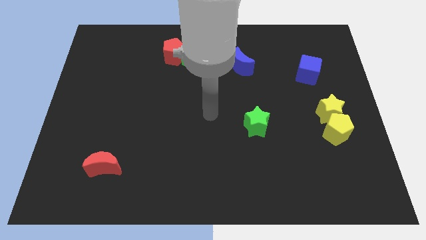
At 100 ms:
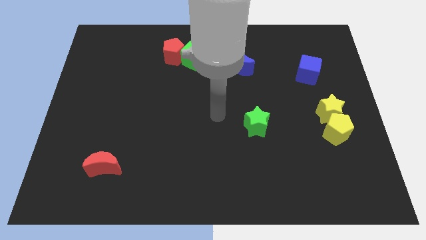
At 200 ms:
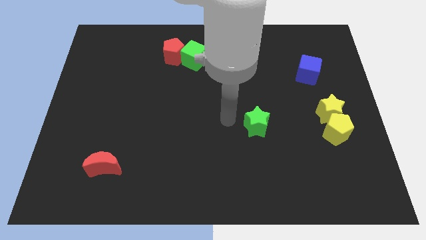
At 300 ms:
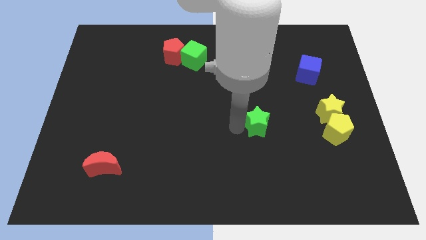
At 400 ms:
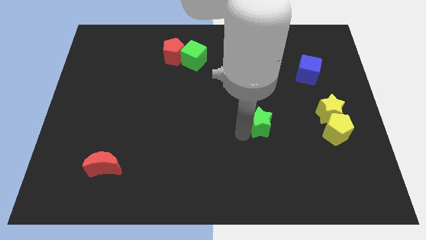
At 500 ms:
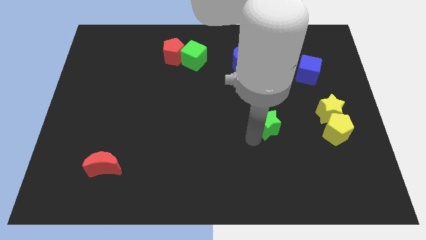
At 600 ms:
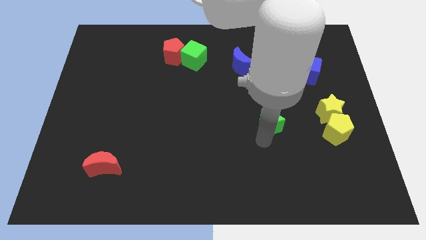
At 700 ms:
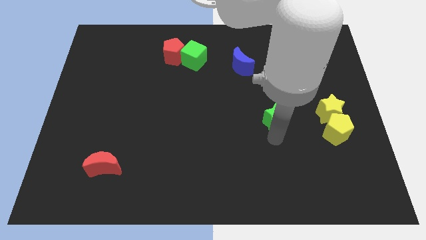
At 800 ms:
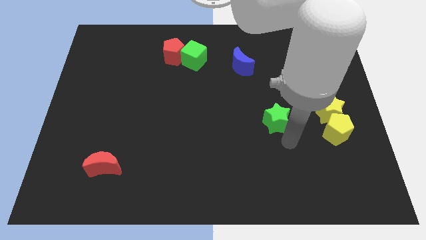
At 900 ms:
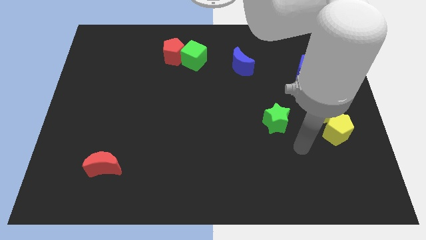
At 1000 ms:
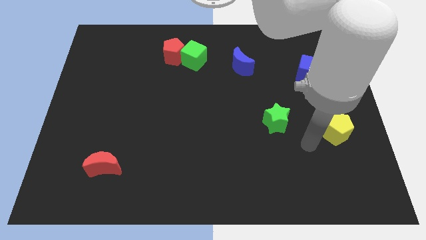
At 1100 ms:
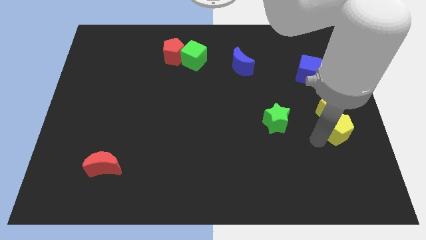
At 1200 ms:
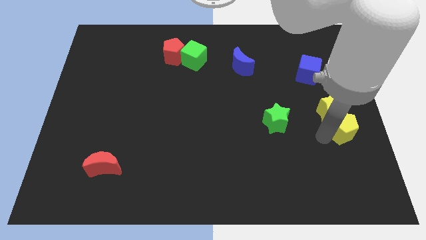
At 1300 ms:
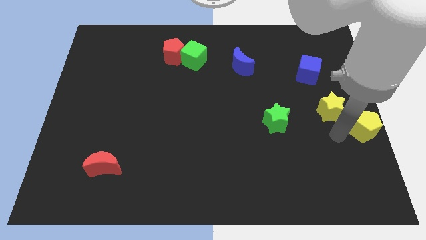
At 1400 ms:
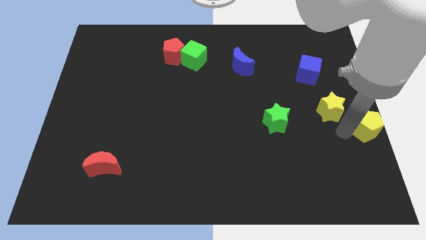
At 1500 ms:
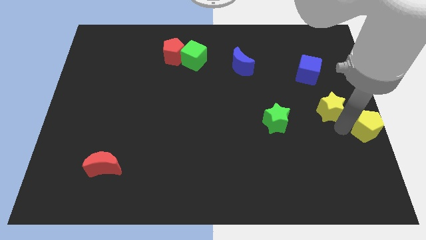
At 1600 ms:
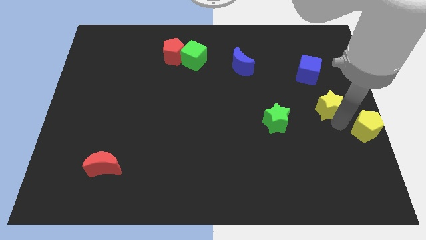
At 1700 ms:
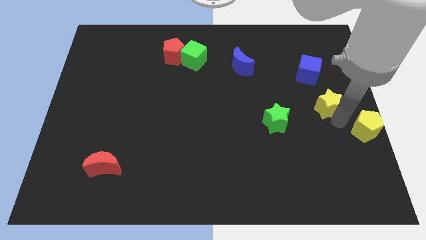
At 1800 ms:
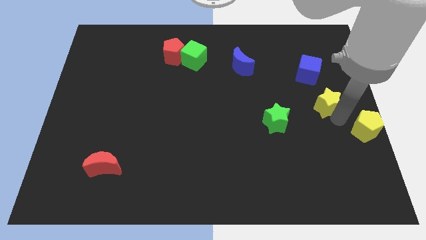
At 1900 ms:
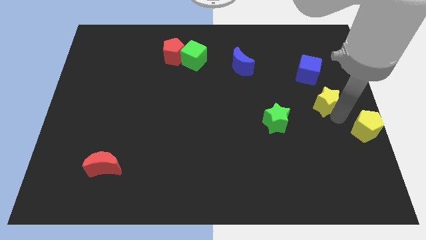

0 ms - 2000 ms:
move the yellow star away from the yellow pentagon

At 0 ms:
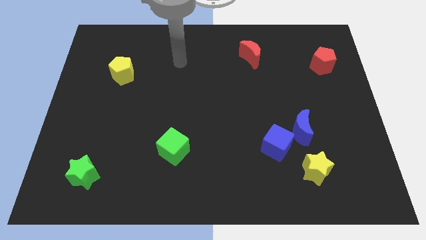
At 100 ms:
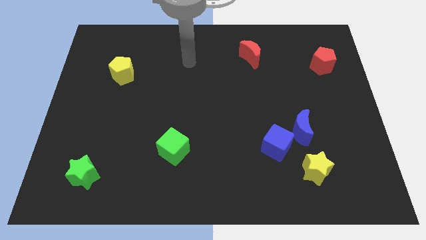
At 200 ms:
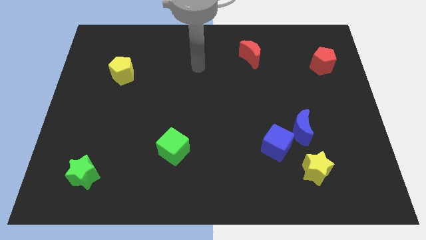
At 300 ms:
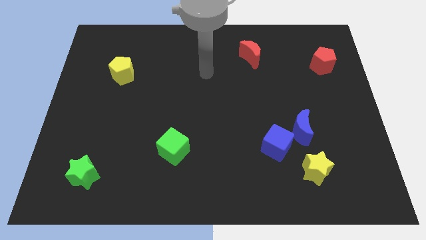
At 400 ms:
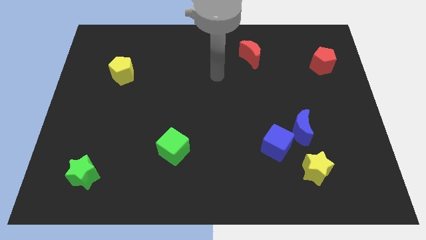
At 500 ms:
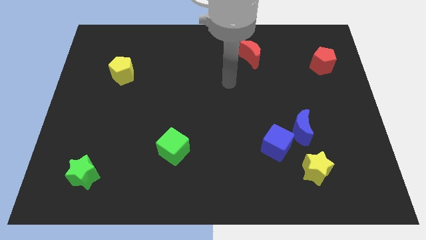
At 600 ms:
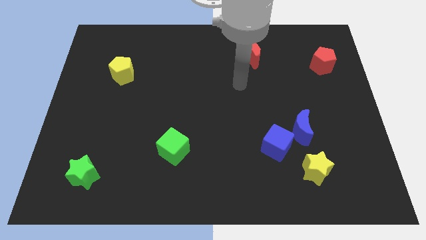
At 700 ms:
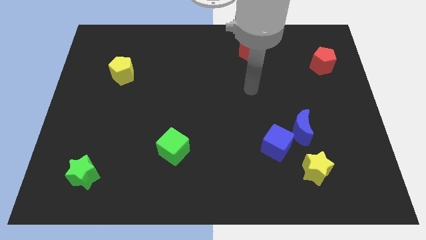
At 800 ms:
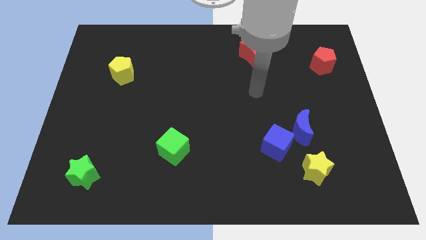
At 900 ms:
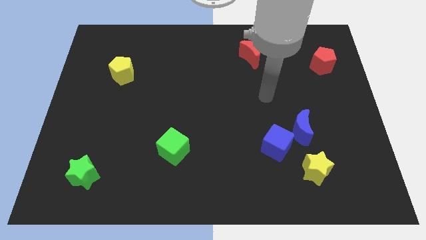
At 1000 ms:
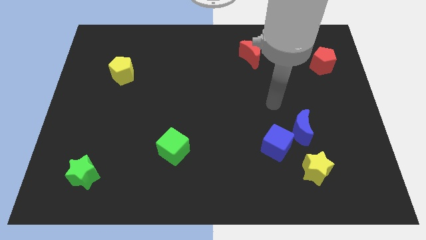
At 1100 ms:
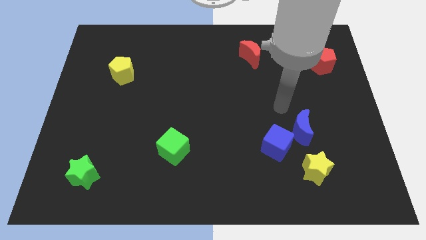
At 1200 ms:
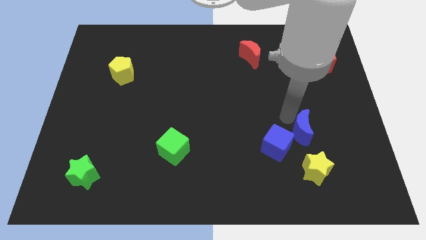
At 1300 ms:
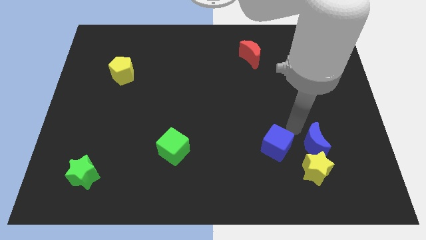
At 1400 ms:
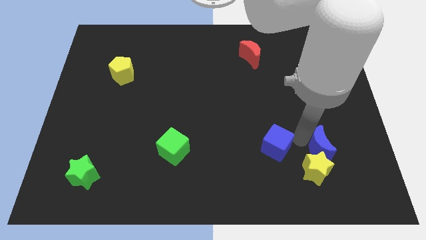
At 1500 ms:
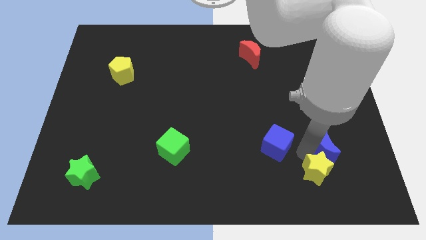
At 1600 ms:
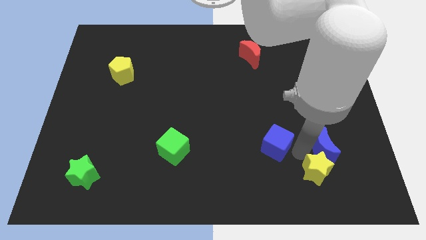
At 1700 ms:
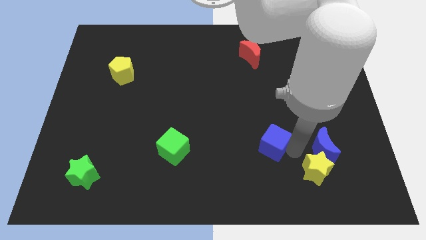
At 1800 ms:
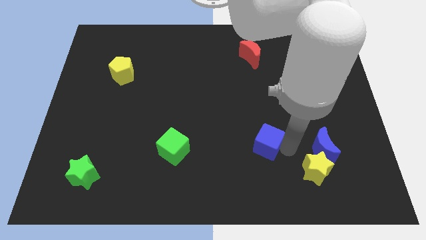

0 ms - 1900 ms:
separate the blue cube from the blue moon and yellow star

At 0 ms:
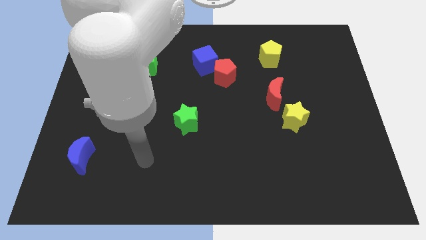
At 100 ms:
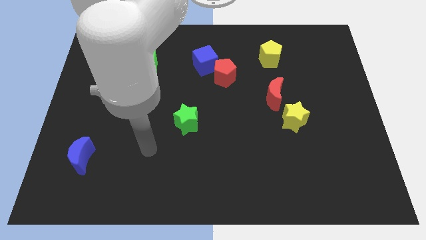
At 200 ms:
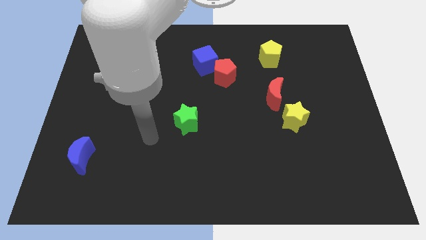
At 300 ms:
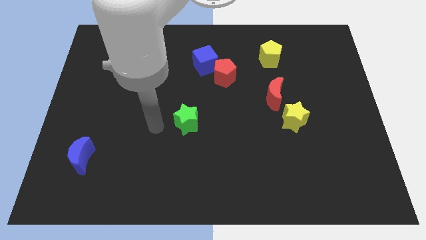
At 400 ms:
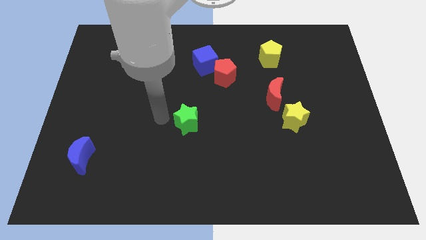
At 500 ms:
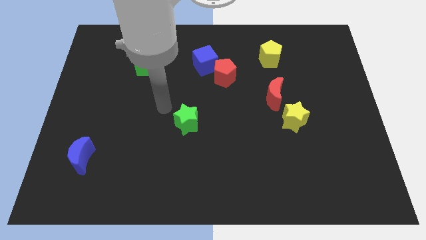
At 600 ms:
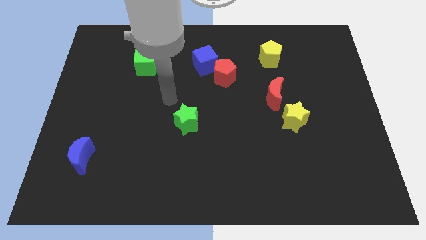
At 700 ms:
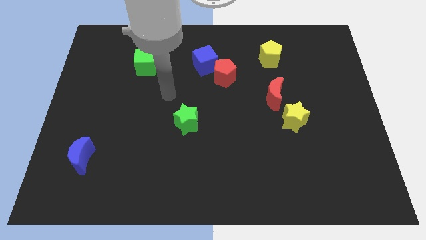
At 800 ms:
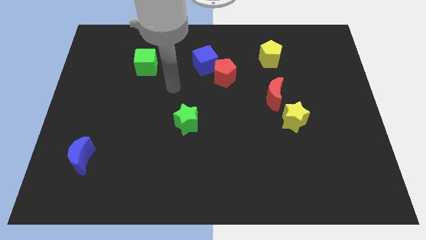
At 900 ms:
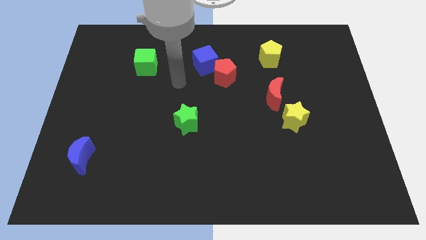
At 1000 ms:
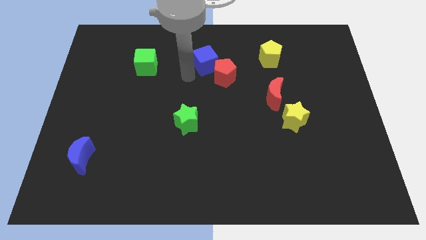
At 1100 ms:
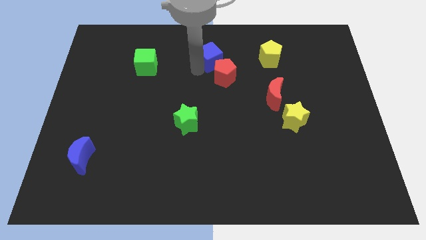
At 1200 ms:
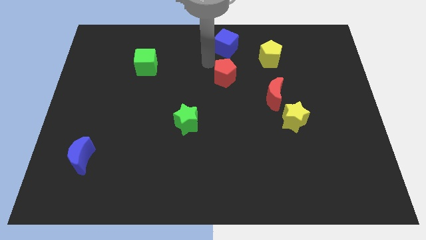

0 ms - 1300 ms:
move the red pentagon away from the blue cube

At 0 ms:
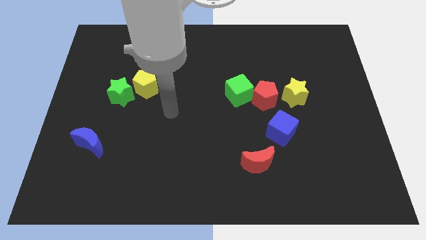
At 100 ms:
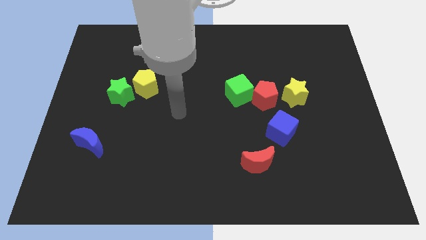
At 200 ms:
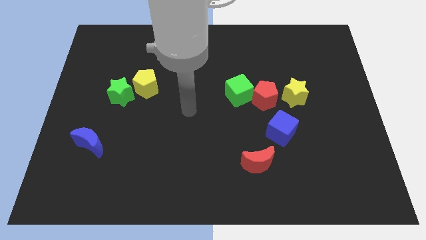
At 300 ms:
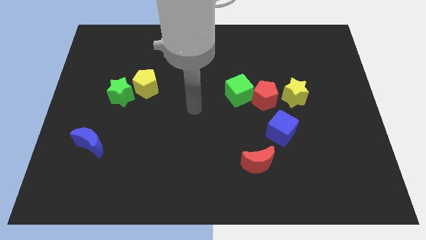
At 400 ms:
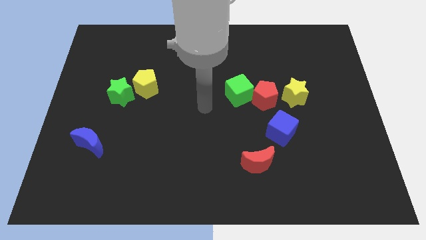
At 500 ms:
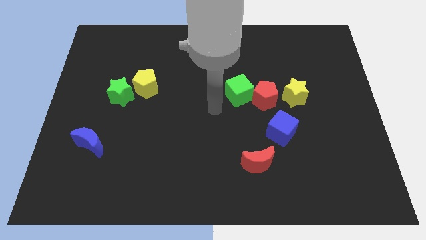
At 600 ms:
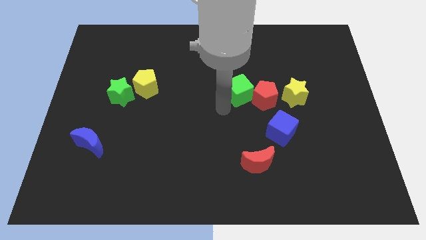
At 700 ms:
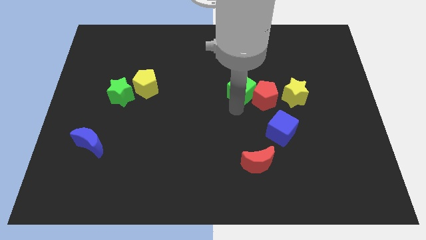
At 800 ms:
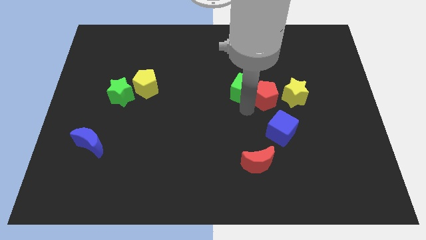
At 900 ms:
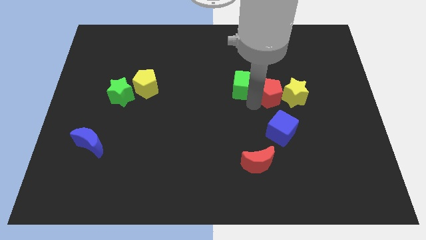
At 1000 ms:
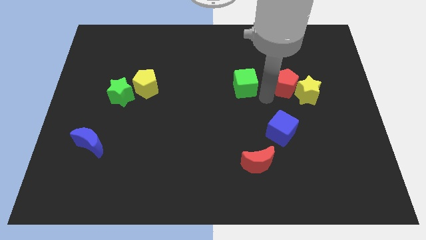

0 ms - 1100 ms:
pull the green cube apart from the red pentagon

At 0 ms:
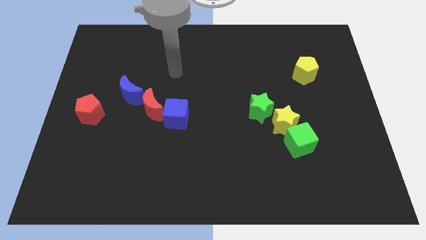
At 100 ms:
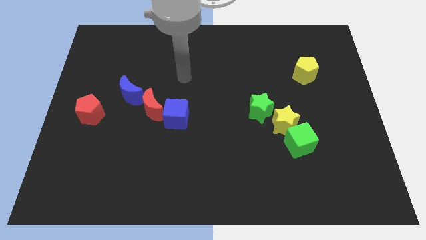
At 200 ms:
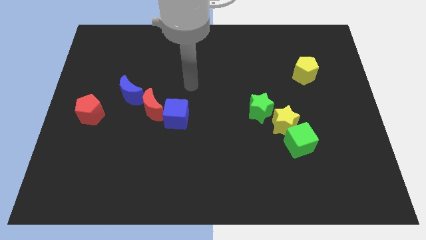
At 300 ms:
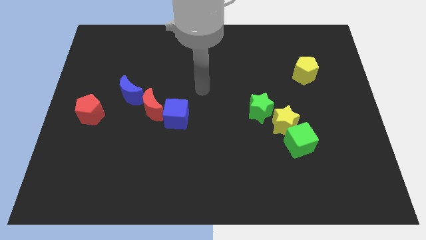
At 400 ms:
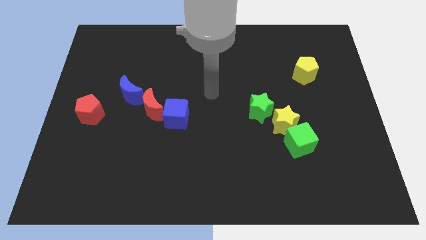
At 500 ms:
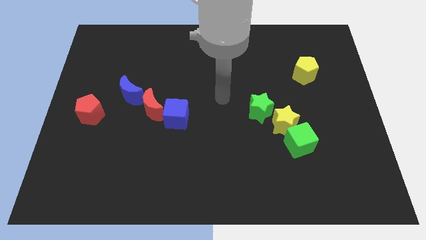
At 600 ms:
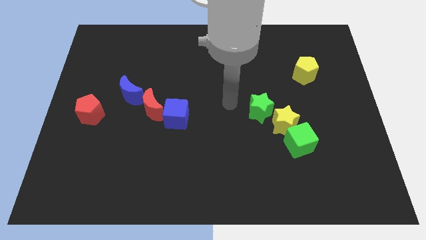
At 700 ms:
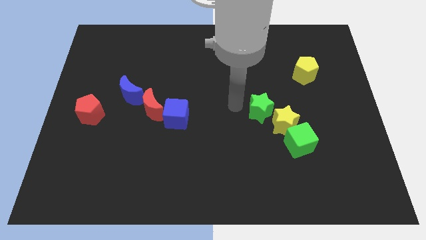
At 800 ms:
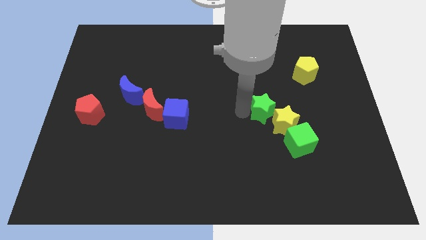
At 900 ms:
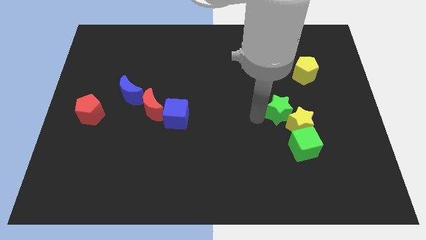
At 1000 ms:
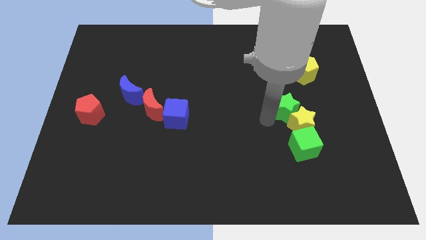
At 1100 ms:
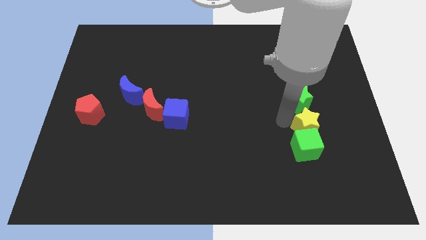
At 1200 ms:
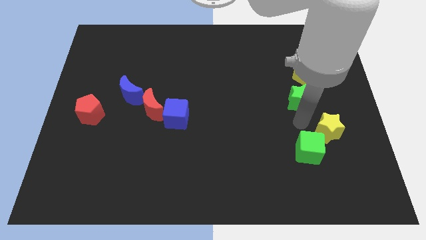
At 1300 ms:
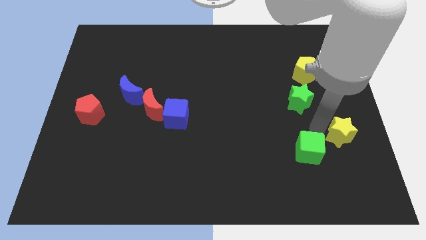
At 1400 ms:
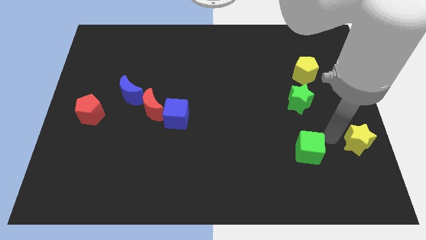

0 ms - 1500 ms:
pull the green cube apart from the yellow star

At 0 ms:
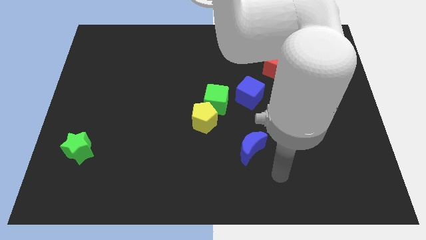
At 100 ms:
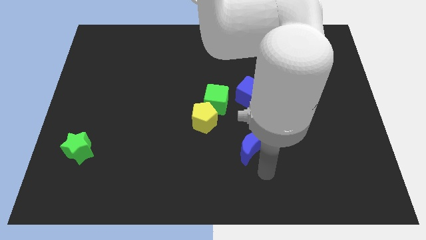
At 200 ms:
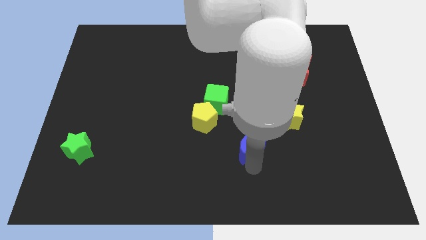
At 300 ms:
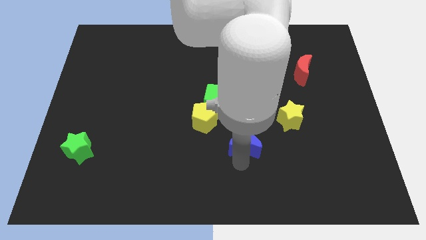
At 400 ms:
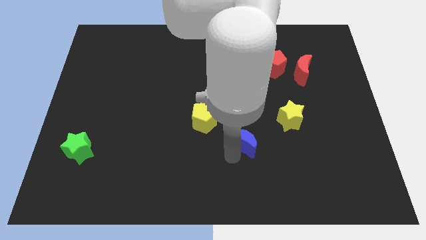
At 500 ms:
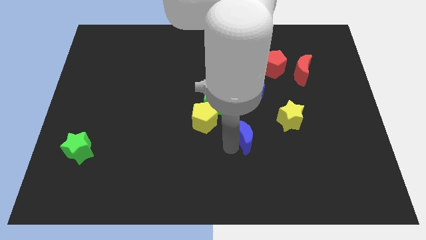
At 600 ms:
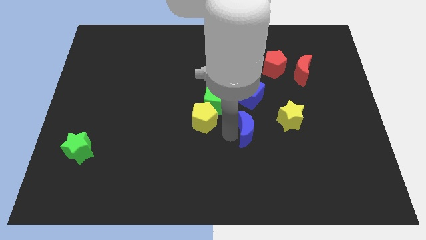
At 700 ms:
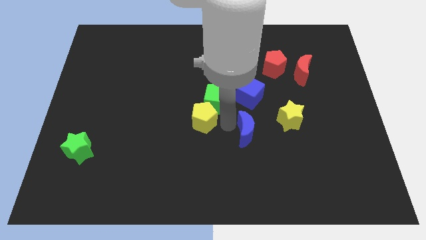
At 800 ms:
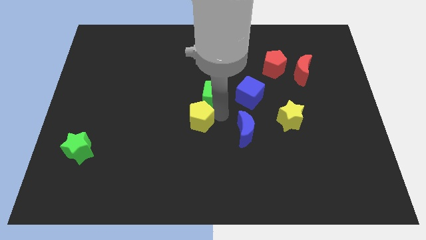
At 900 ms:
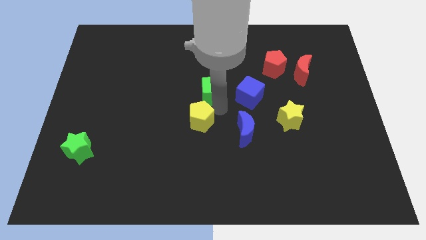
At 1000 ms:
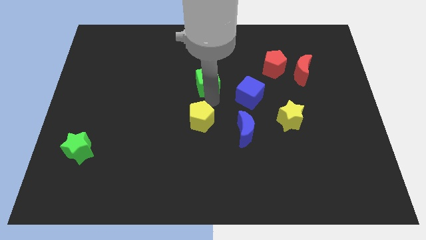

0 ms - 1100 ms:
pull the yellow pentagon apart from the green cube

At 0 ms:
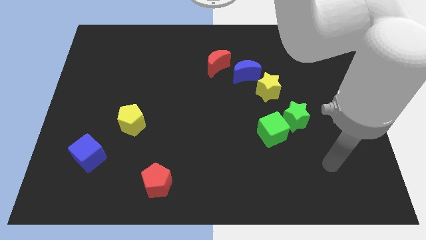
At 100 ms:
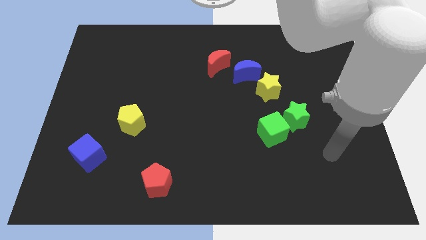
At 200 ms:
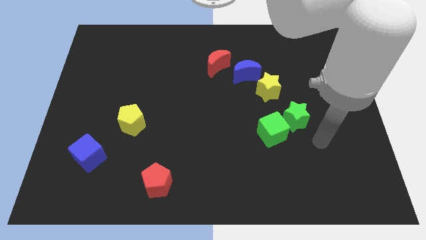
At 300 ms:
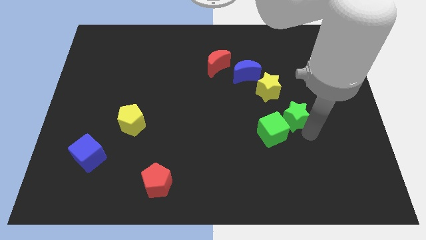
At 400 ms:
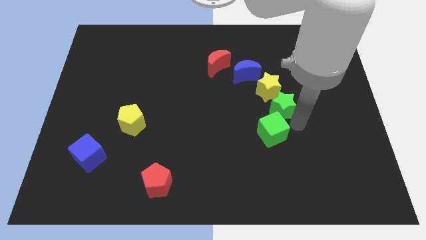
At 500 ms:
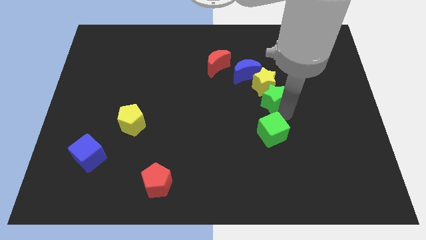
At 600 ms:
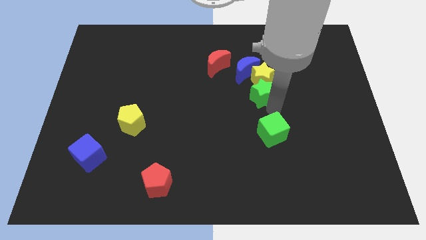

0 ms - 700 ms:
move the green cube away from the green star
